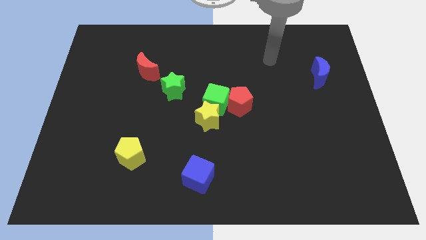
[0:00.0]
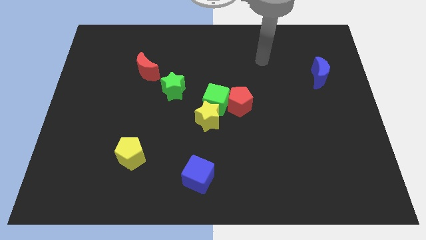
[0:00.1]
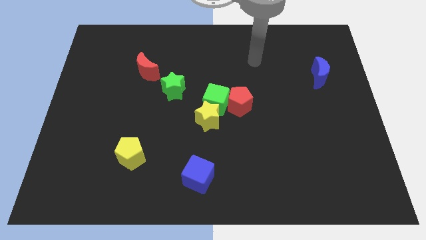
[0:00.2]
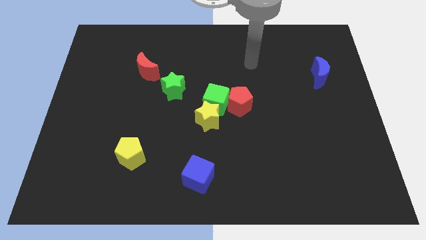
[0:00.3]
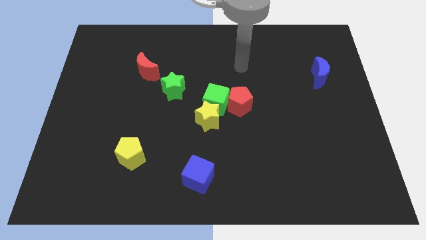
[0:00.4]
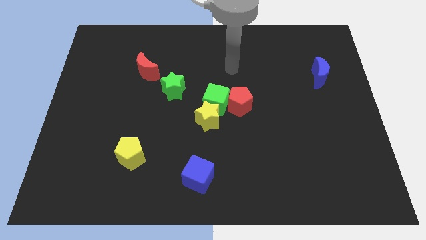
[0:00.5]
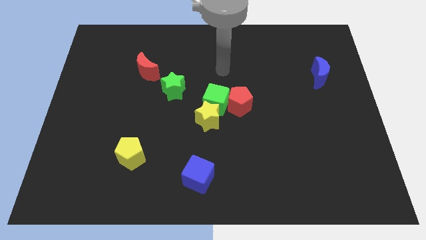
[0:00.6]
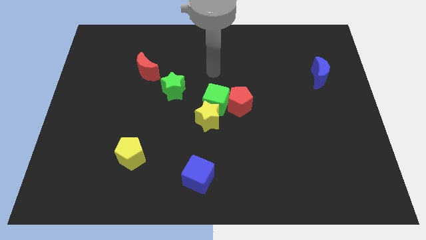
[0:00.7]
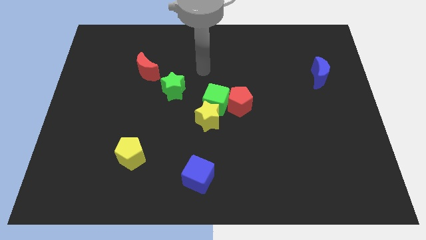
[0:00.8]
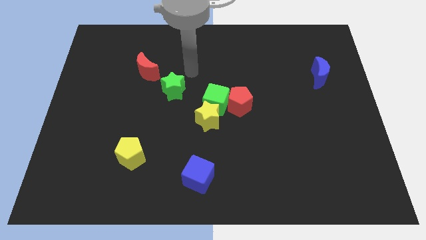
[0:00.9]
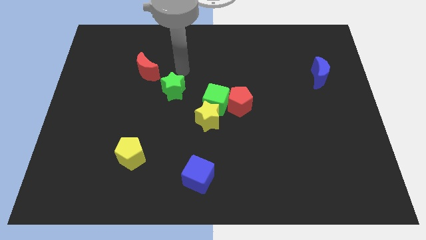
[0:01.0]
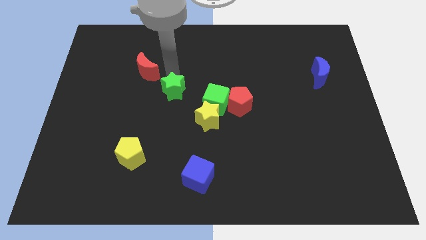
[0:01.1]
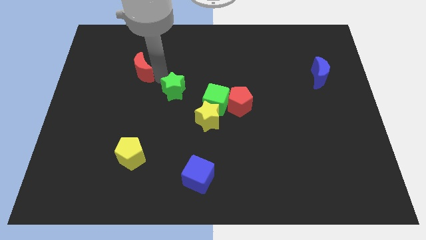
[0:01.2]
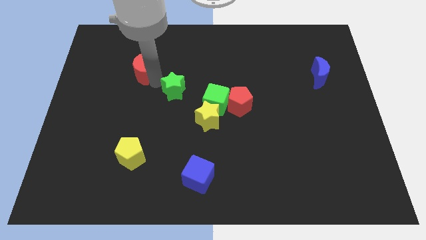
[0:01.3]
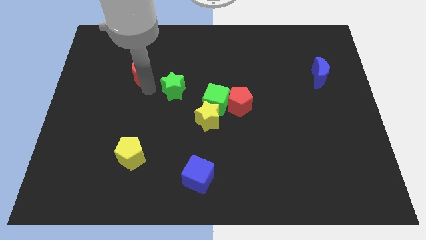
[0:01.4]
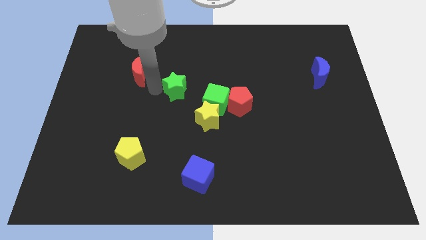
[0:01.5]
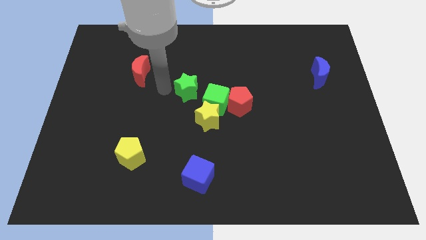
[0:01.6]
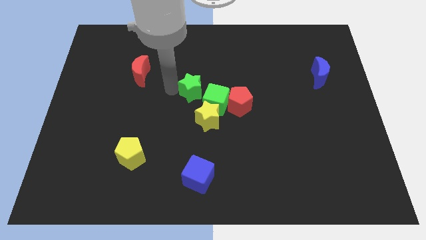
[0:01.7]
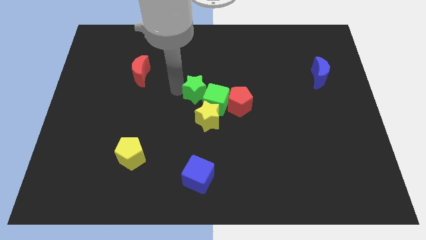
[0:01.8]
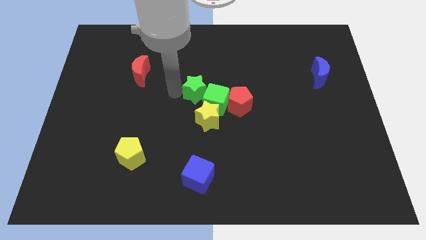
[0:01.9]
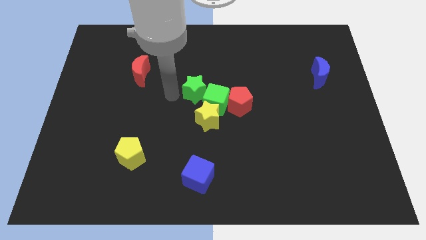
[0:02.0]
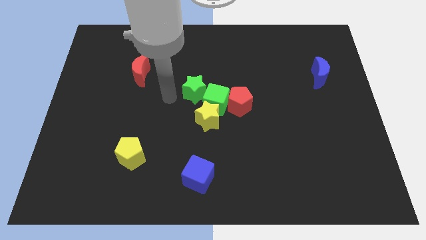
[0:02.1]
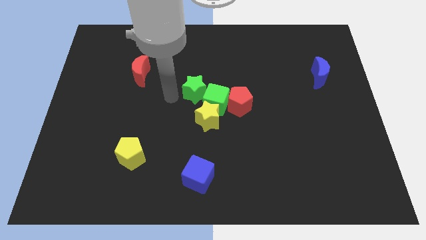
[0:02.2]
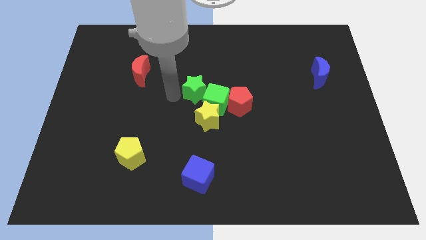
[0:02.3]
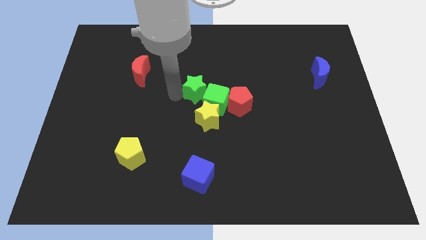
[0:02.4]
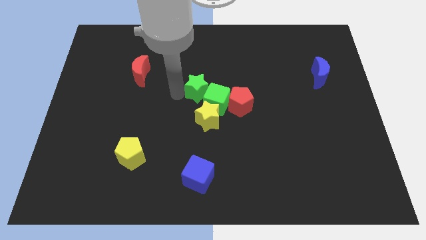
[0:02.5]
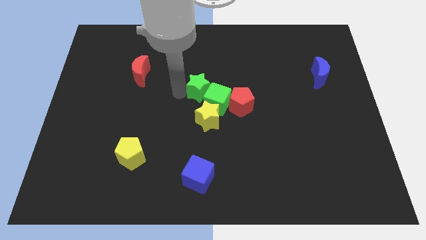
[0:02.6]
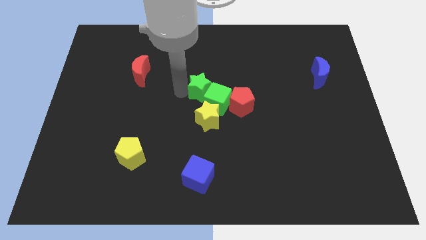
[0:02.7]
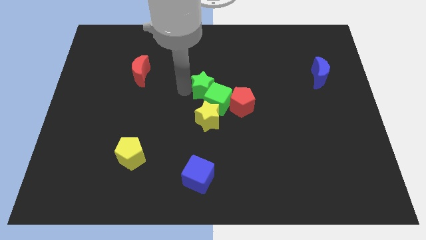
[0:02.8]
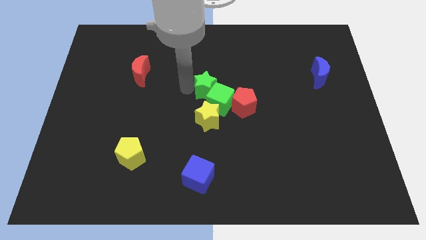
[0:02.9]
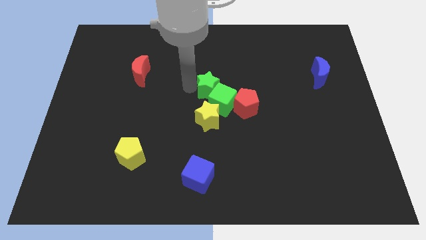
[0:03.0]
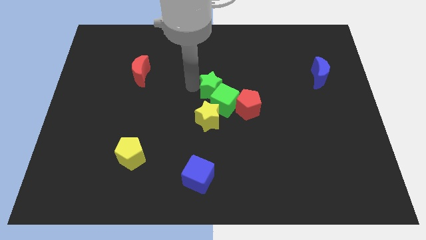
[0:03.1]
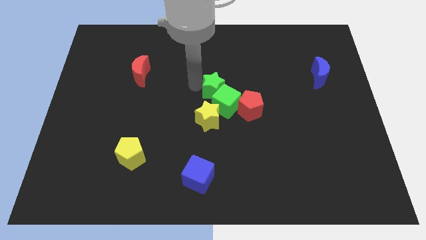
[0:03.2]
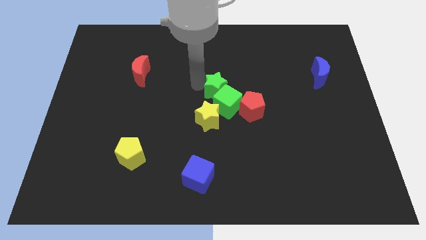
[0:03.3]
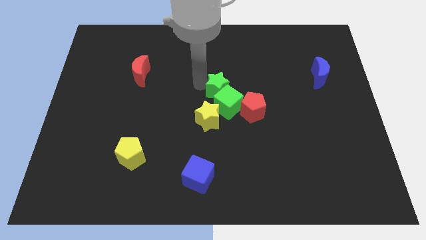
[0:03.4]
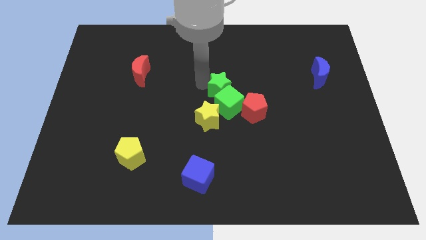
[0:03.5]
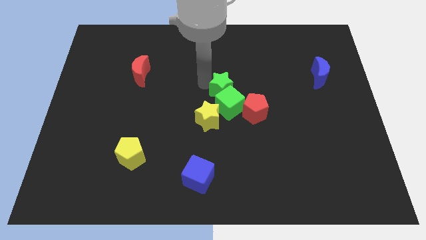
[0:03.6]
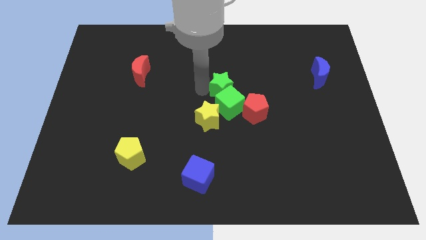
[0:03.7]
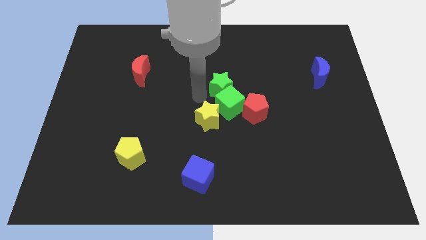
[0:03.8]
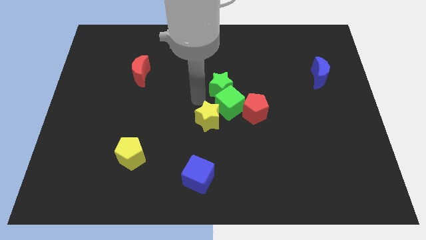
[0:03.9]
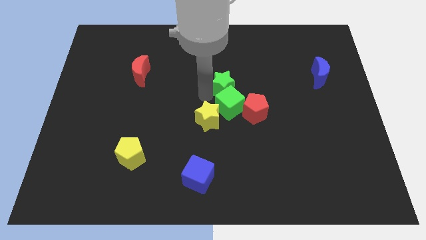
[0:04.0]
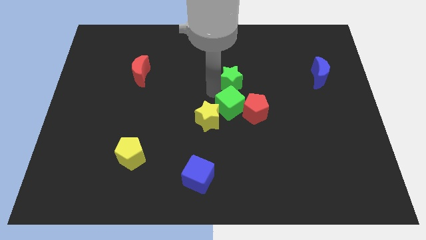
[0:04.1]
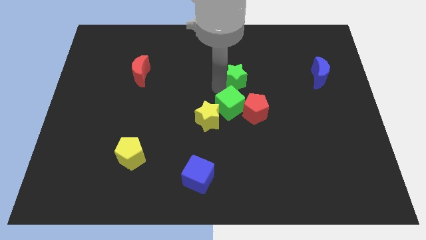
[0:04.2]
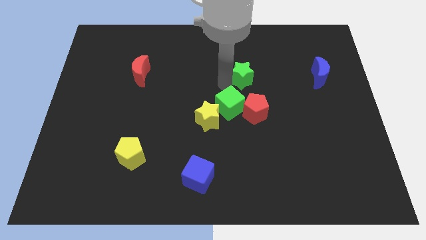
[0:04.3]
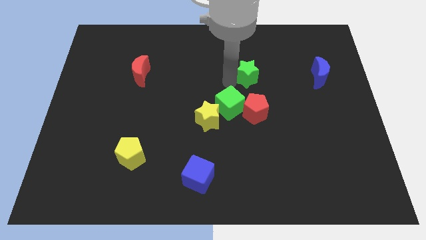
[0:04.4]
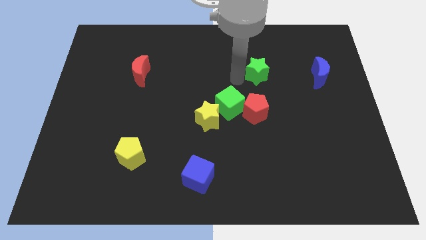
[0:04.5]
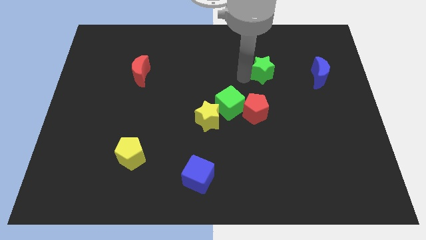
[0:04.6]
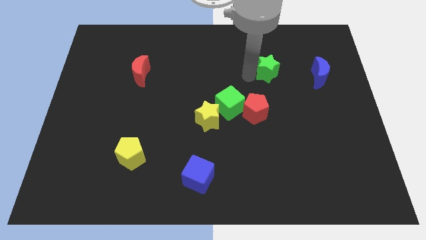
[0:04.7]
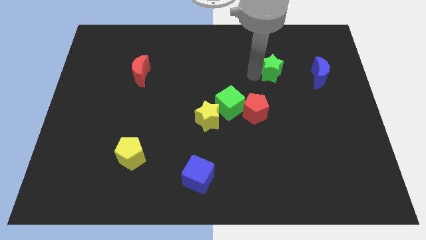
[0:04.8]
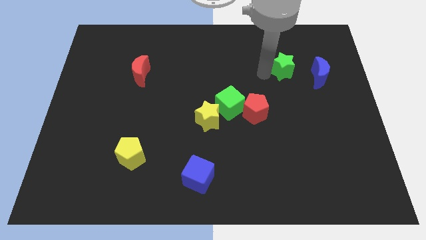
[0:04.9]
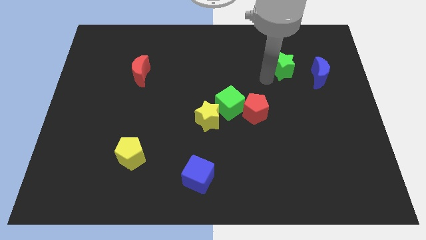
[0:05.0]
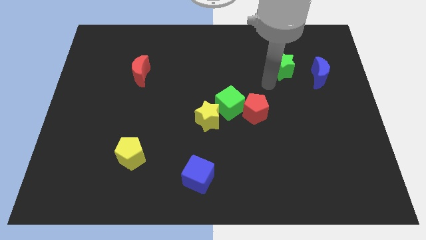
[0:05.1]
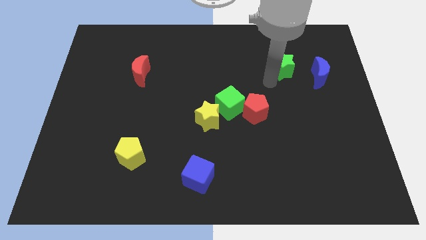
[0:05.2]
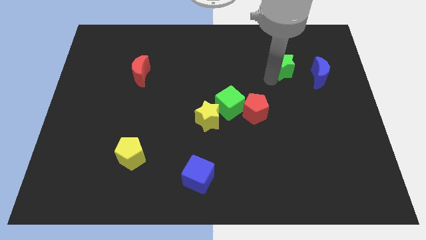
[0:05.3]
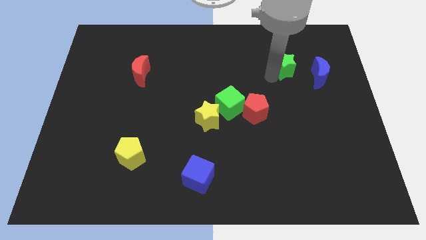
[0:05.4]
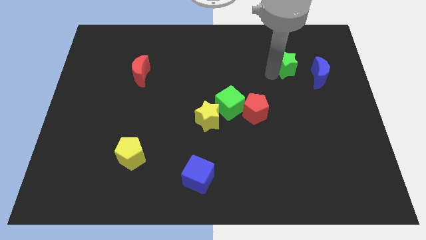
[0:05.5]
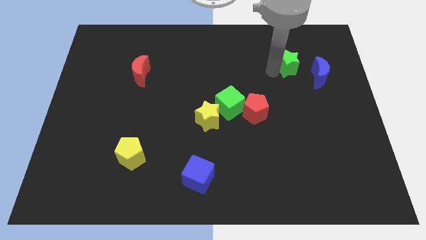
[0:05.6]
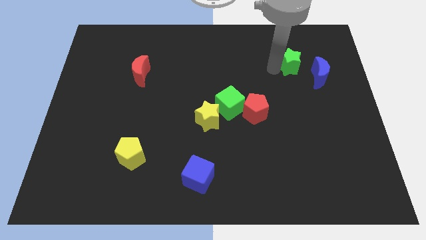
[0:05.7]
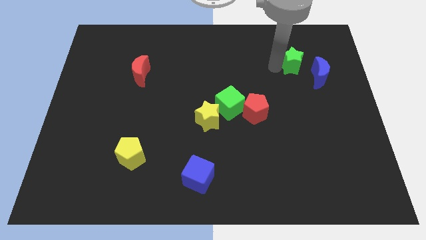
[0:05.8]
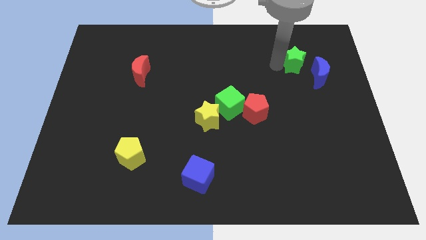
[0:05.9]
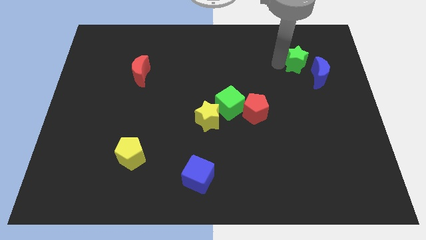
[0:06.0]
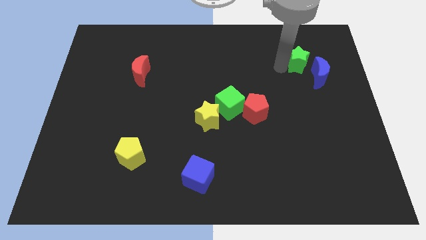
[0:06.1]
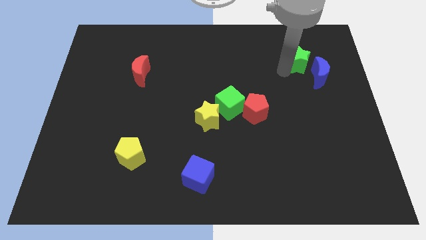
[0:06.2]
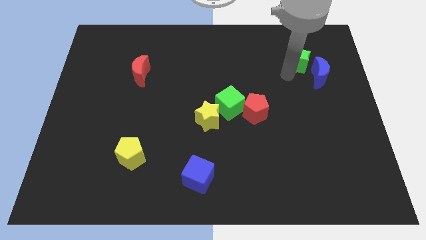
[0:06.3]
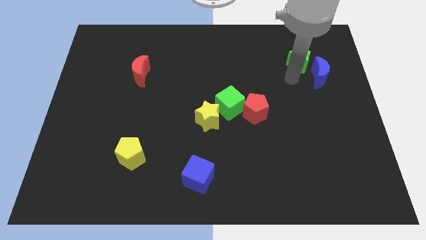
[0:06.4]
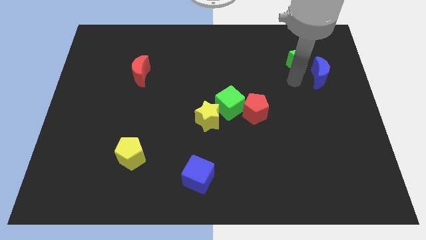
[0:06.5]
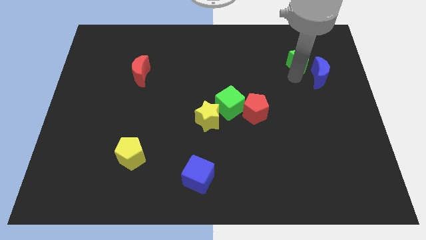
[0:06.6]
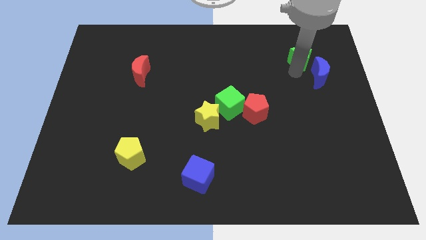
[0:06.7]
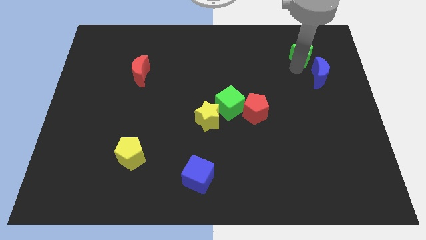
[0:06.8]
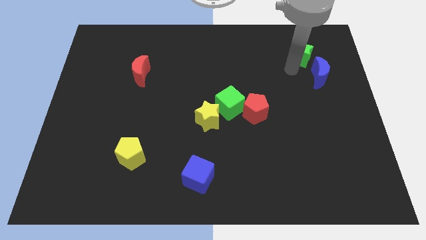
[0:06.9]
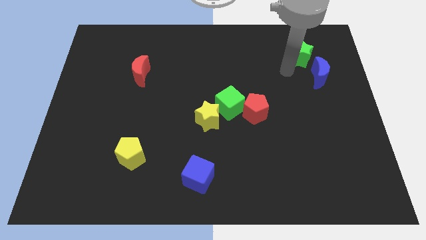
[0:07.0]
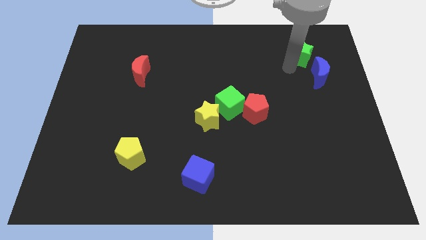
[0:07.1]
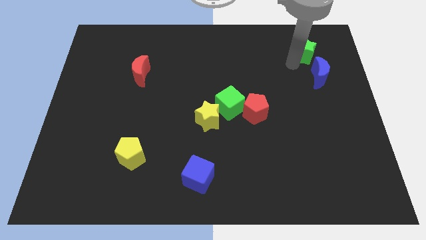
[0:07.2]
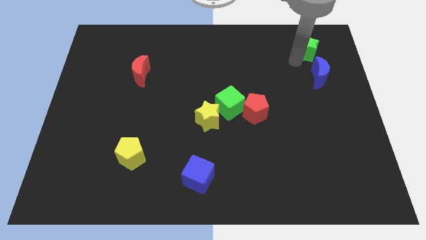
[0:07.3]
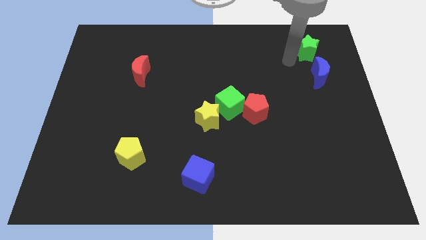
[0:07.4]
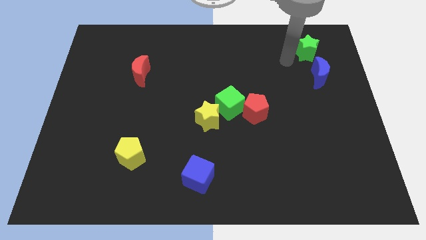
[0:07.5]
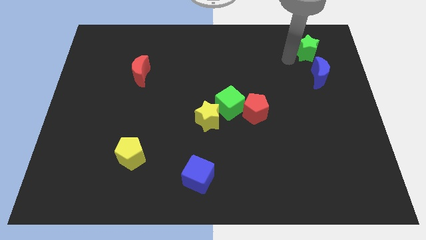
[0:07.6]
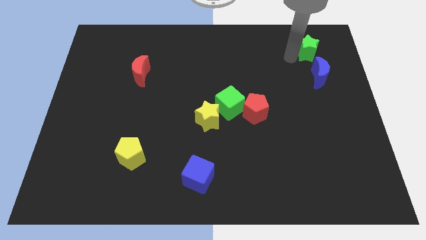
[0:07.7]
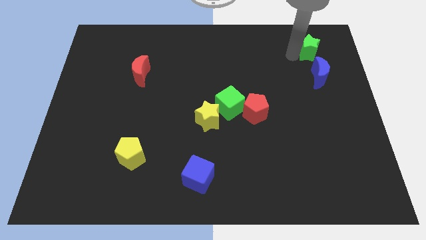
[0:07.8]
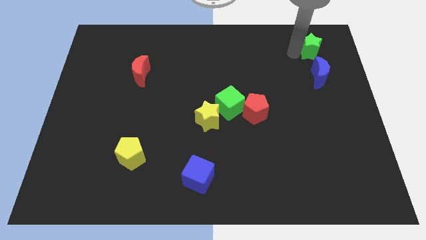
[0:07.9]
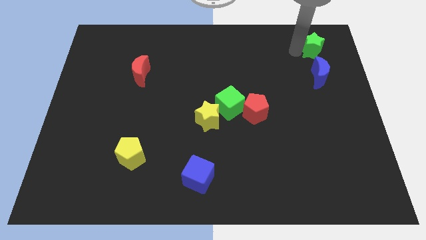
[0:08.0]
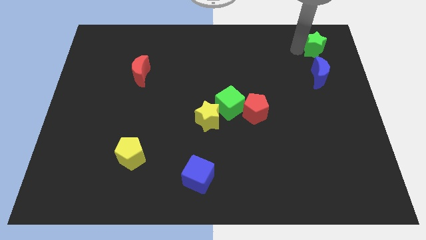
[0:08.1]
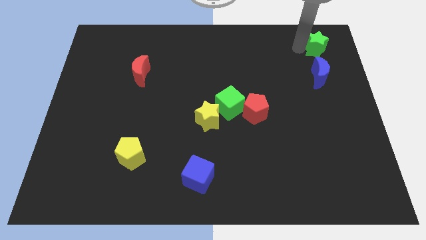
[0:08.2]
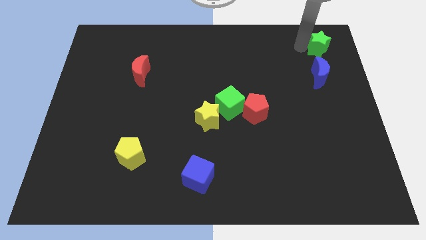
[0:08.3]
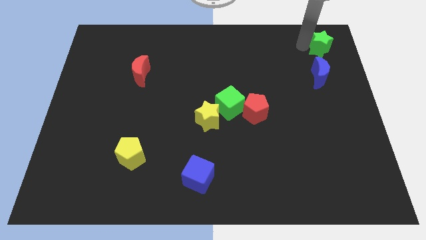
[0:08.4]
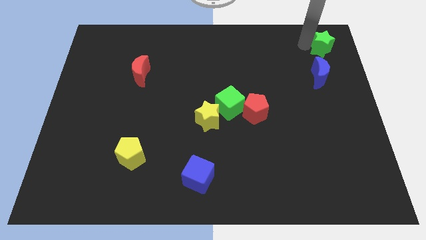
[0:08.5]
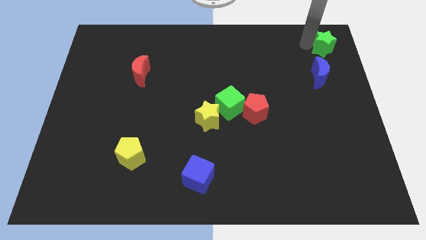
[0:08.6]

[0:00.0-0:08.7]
put the green star to the top right
